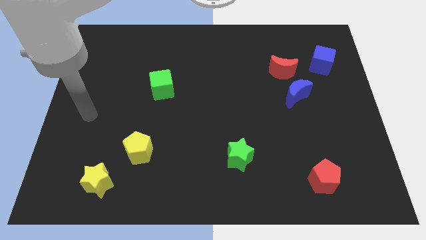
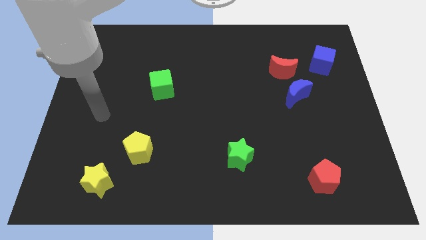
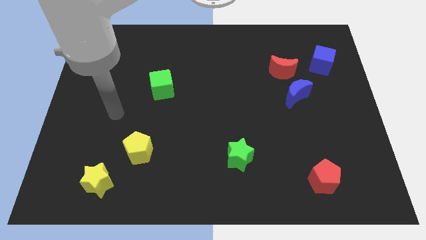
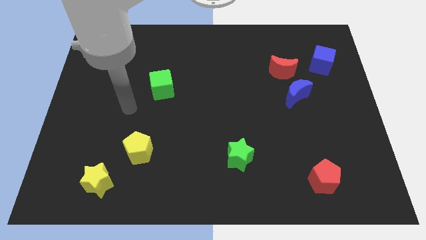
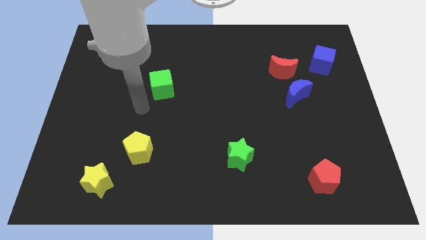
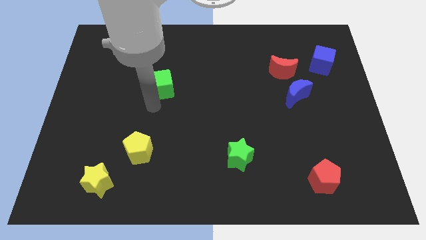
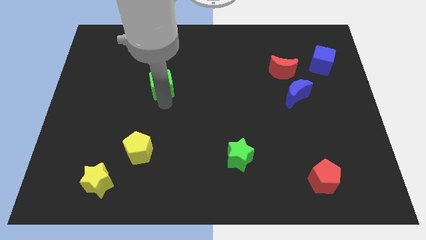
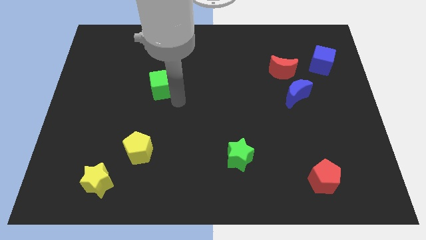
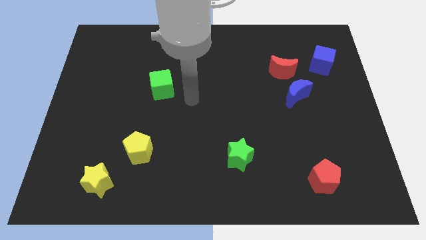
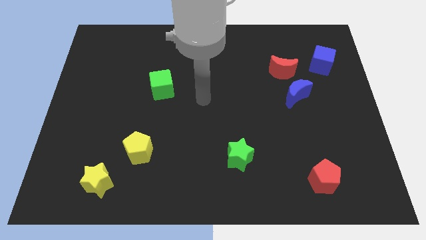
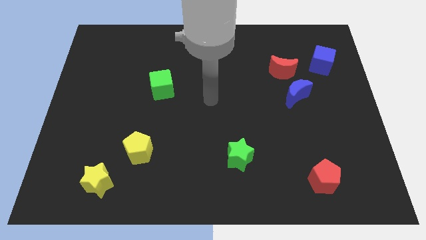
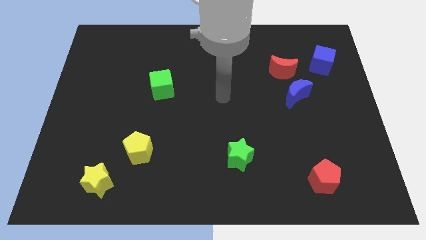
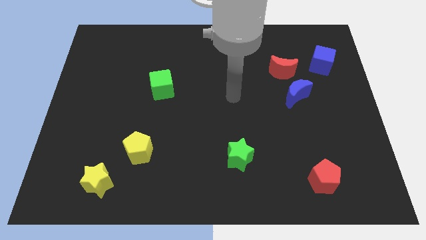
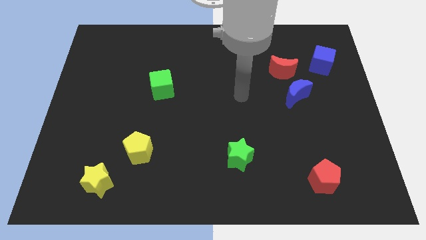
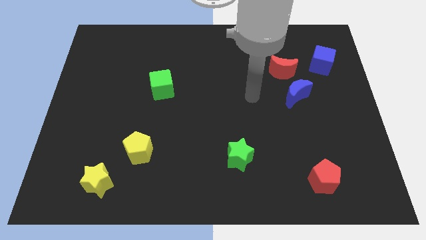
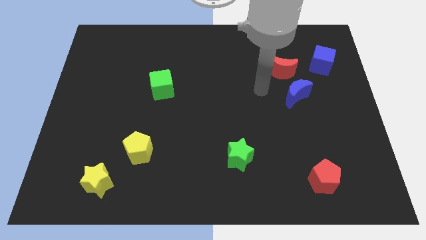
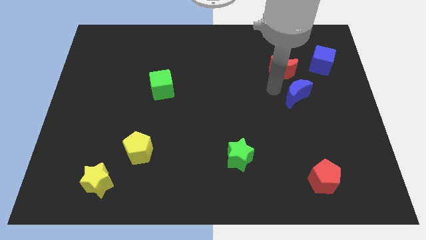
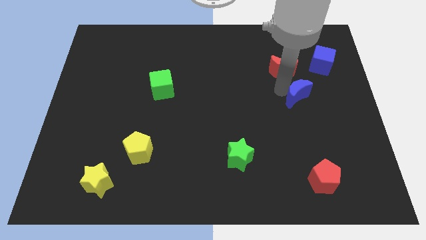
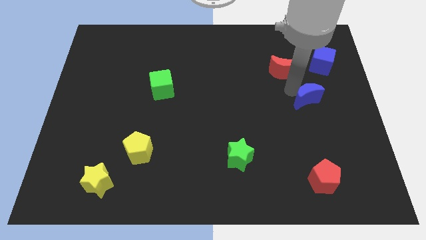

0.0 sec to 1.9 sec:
move the red moon away from the blue moon

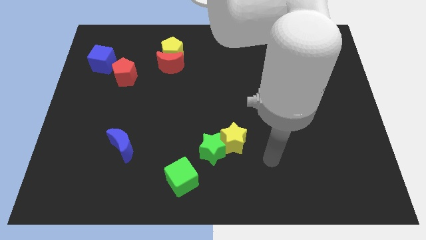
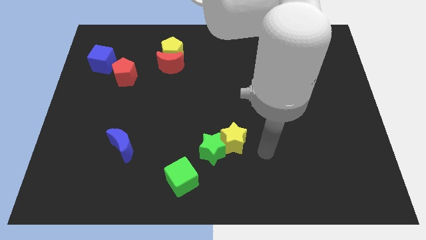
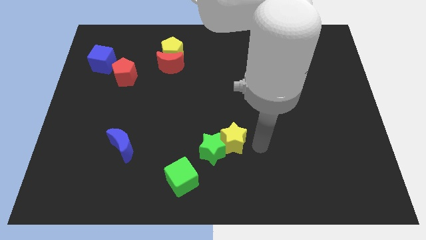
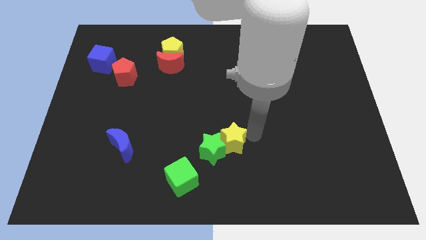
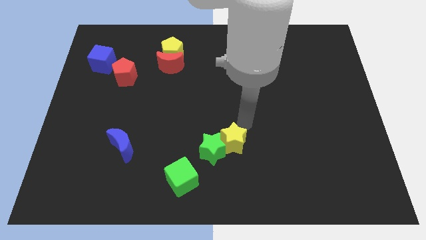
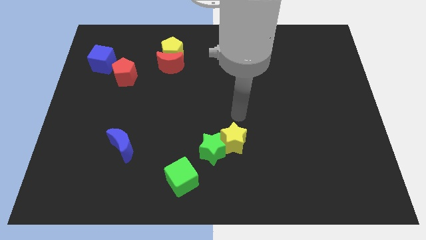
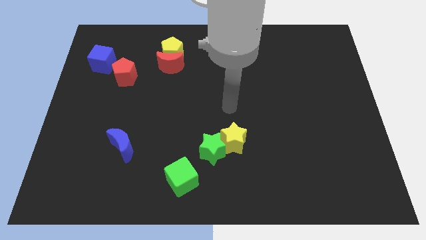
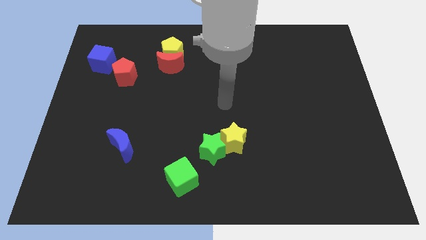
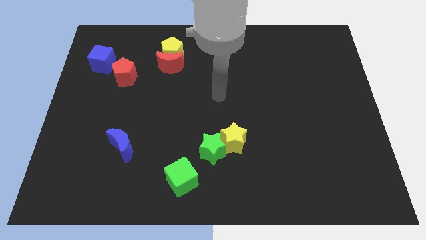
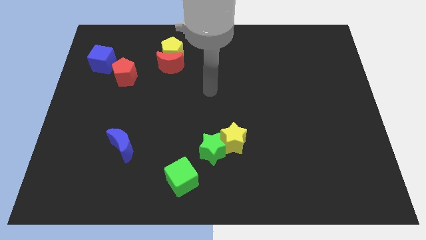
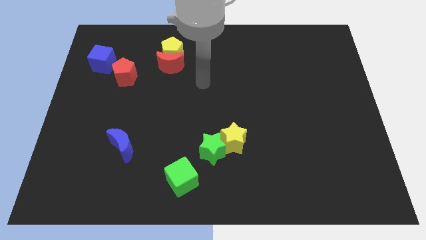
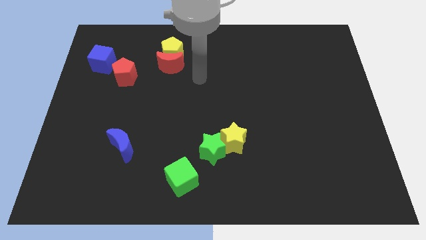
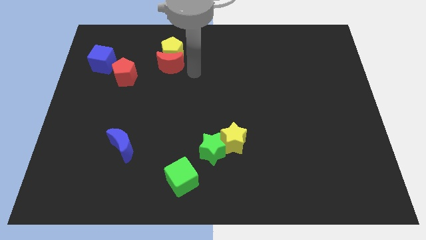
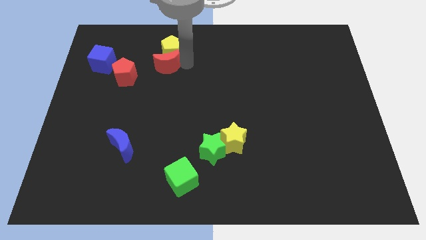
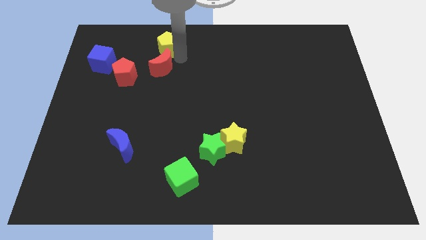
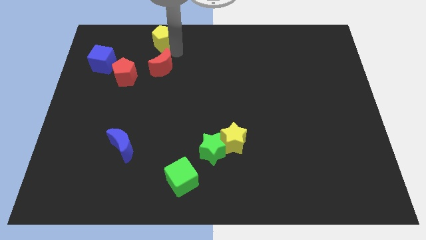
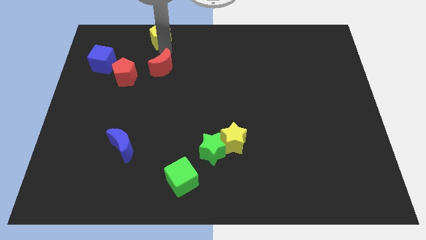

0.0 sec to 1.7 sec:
separate the red moon from the yellow pentagon

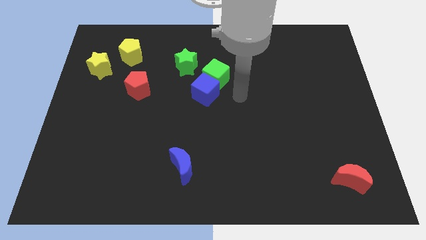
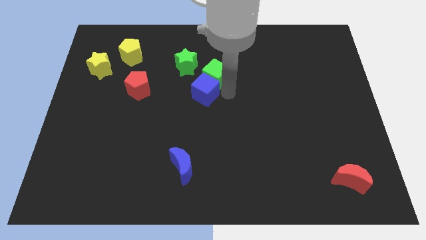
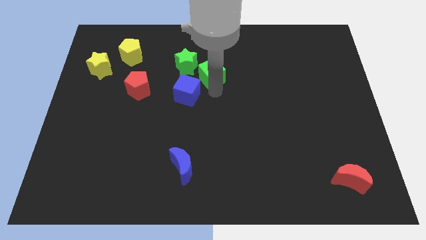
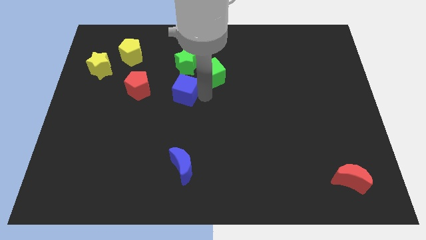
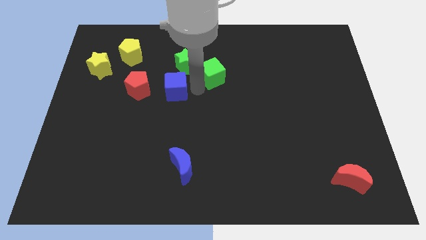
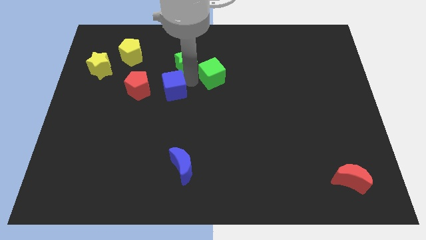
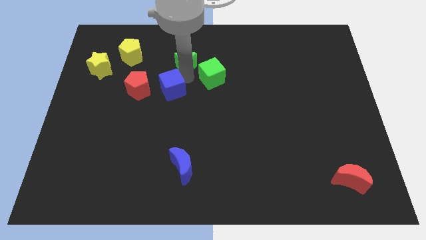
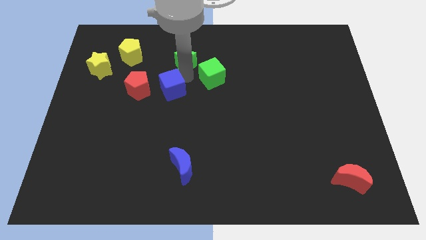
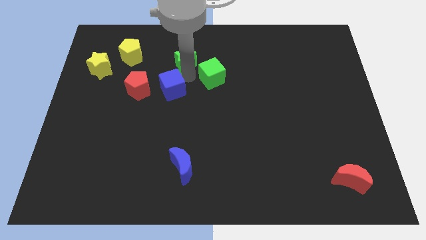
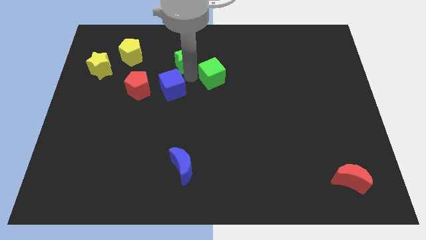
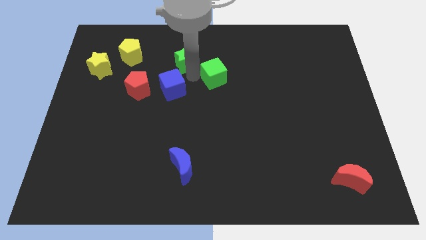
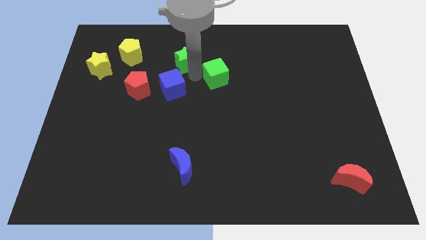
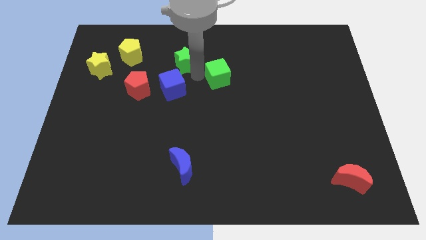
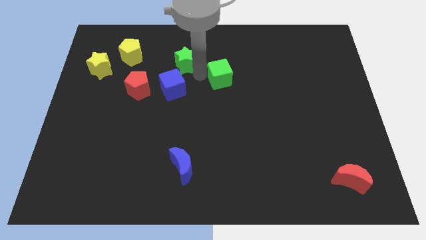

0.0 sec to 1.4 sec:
pull the green cube apart from the blue cube and green star

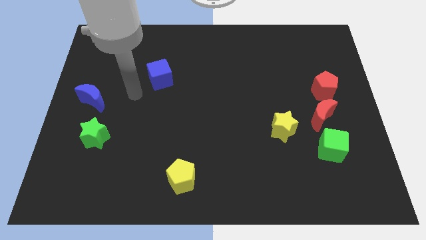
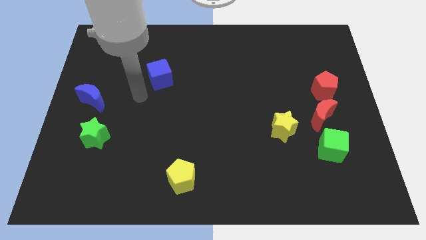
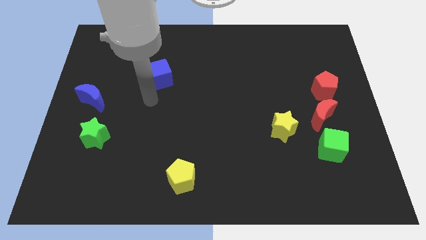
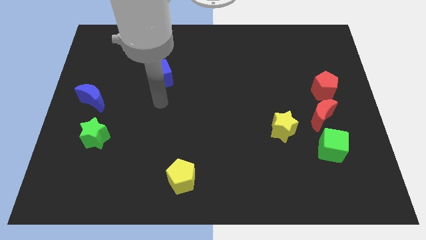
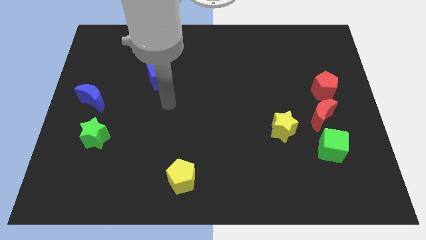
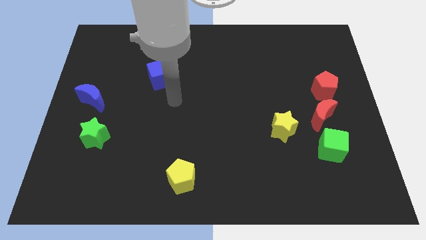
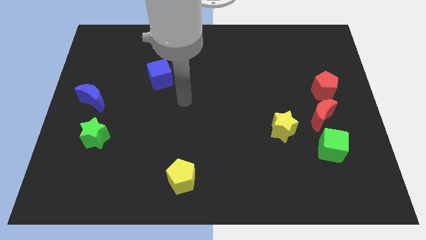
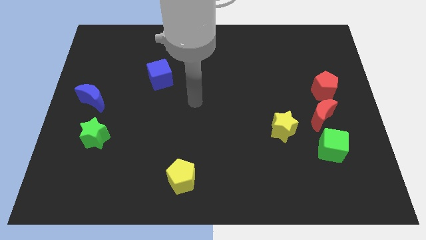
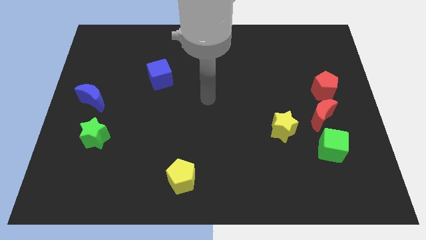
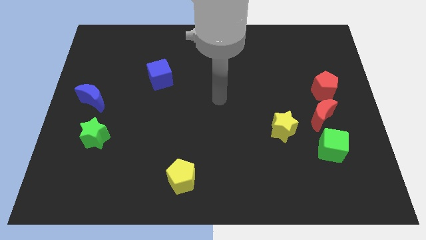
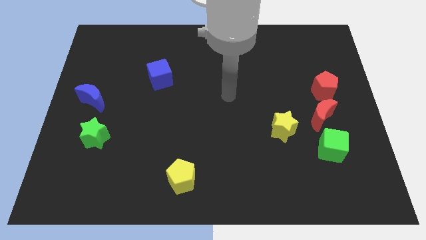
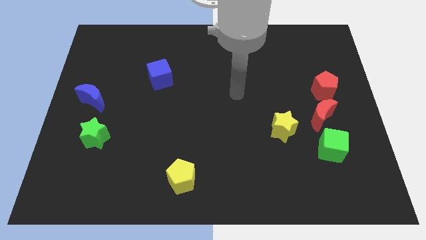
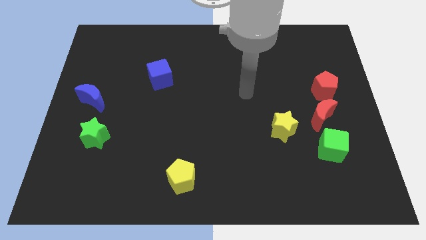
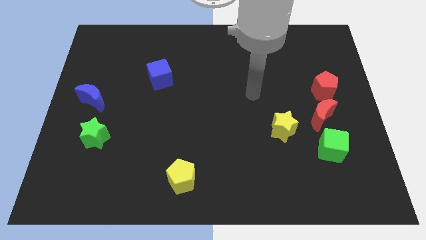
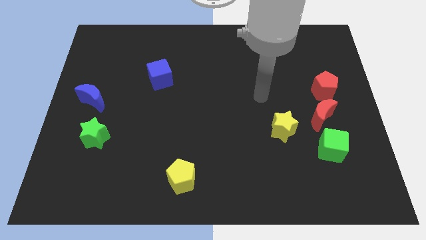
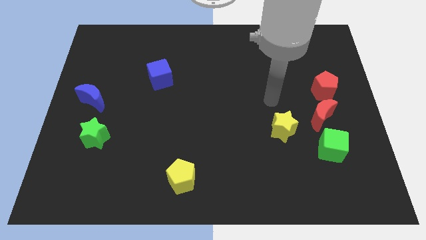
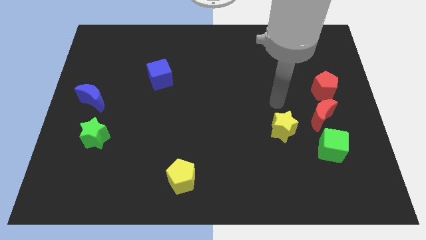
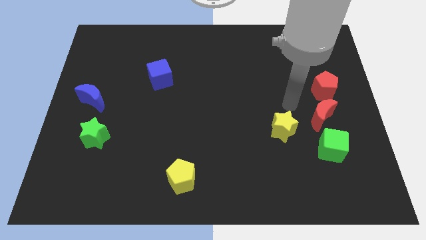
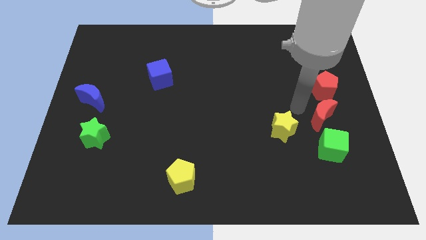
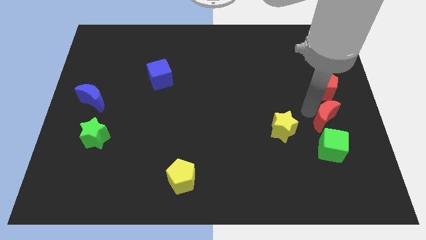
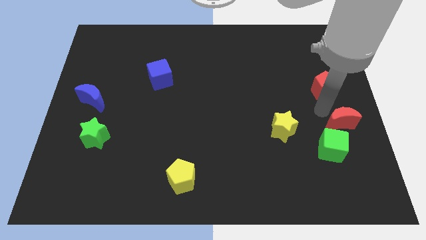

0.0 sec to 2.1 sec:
pull the red pentagon apart from the red moon

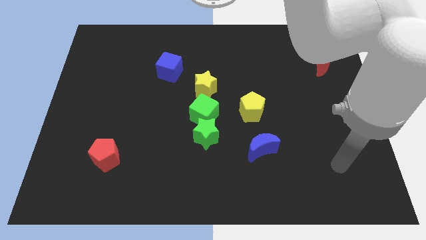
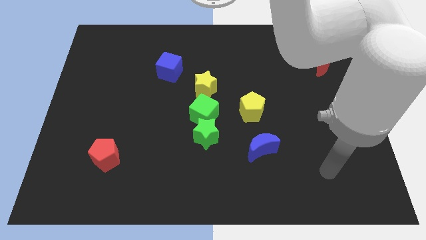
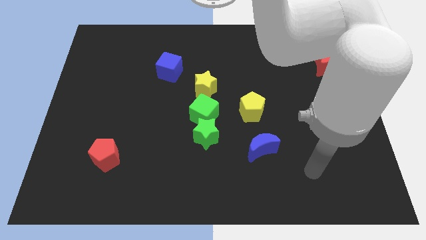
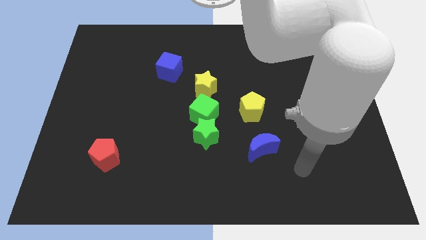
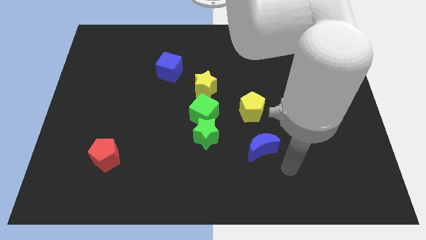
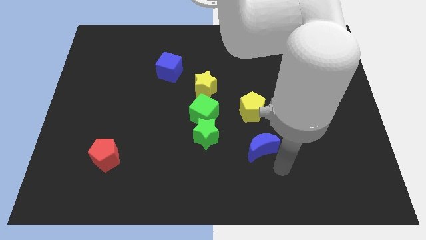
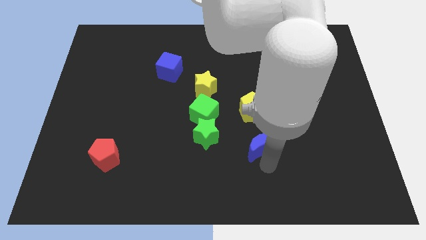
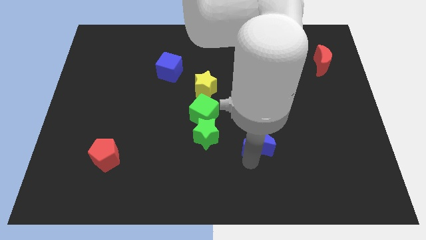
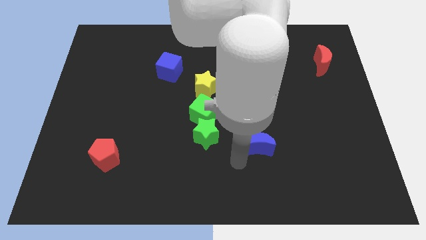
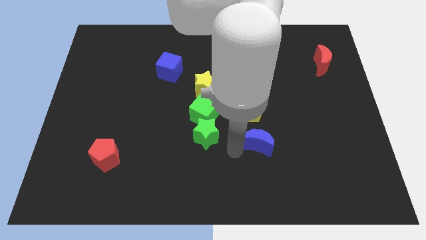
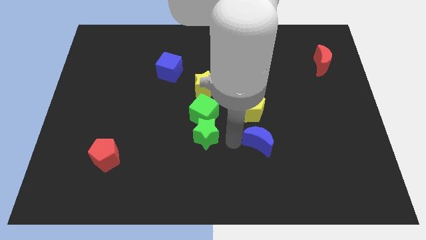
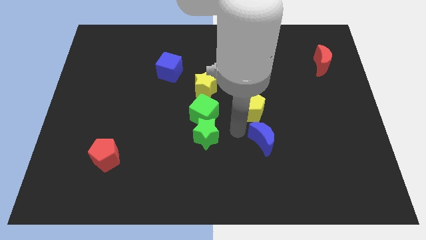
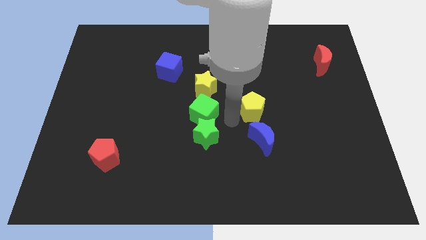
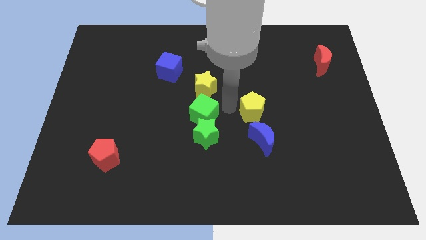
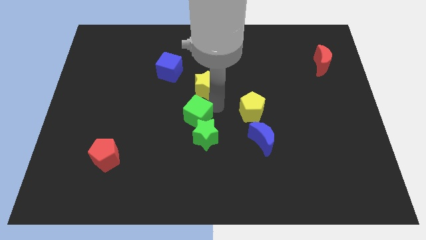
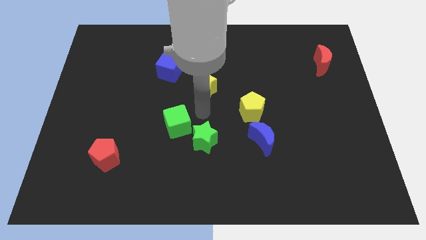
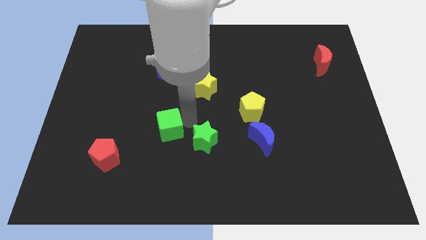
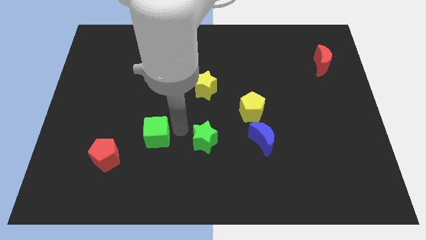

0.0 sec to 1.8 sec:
pull the green star apart from the green cube

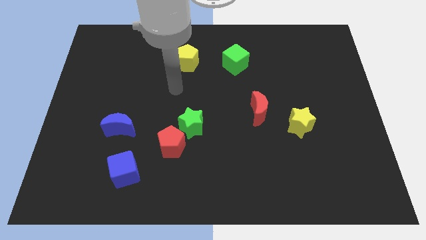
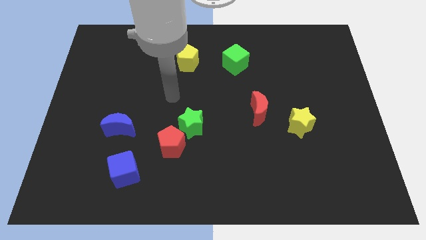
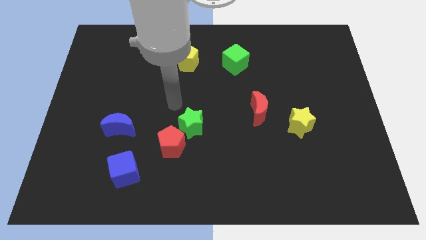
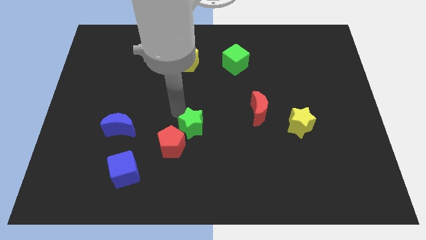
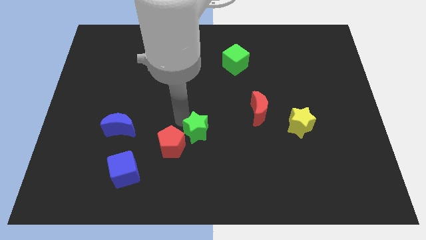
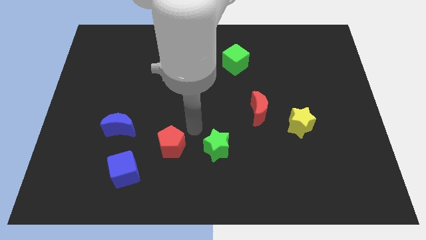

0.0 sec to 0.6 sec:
move the red pentagon away from the green star
